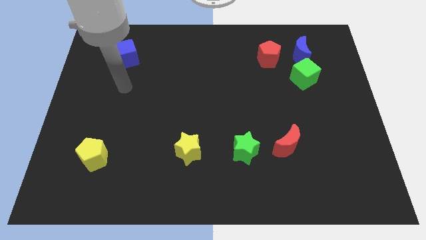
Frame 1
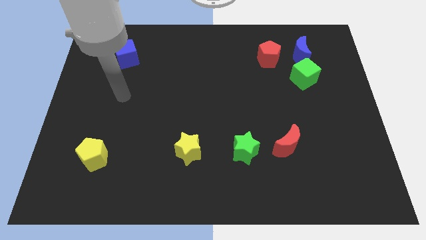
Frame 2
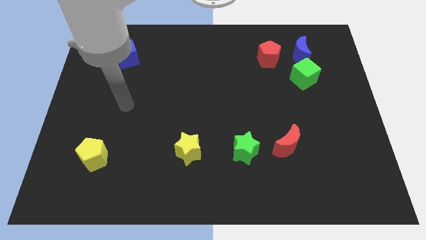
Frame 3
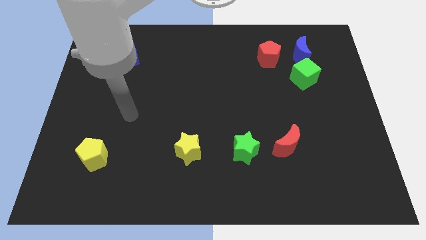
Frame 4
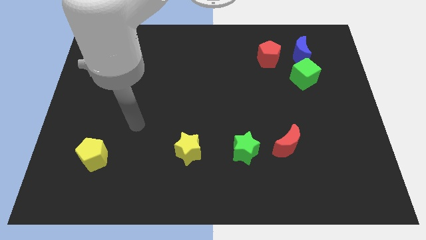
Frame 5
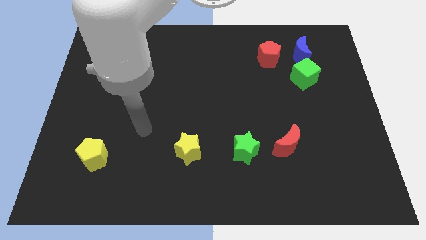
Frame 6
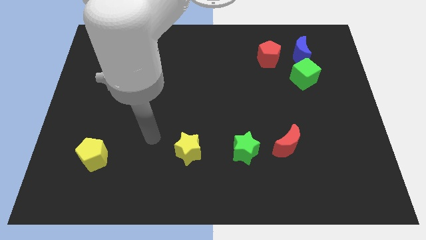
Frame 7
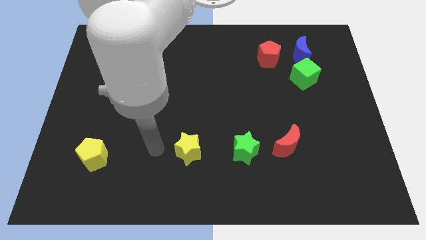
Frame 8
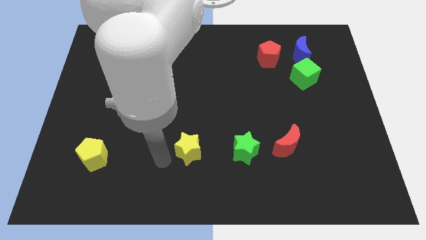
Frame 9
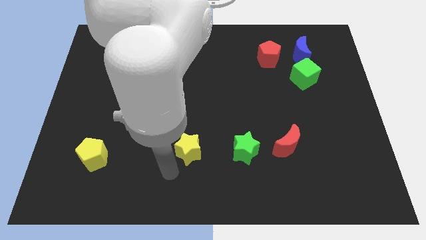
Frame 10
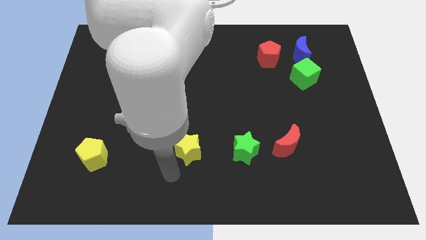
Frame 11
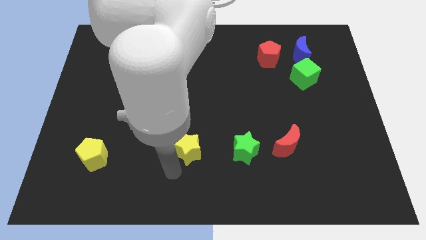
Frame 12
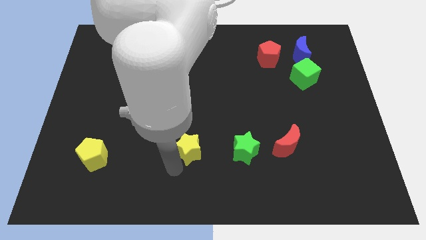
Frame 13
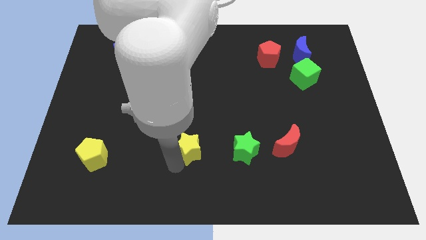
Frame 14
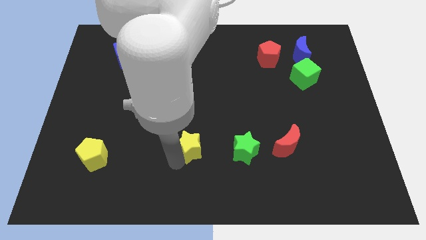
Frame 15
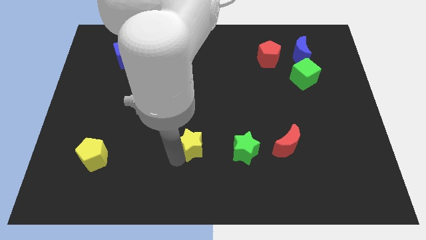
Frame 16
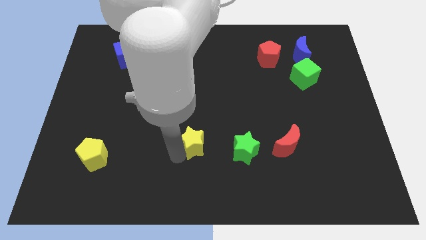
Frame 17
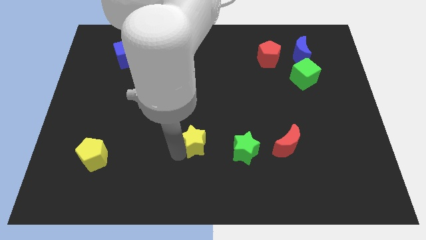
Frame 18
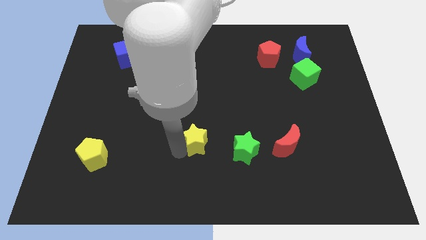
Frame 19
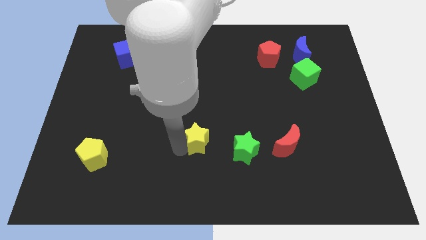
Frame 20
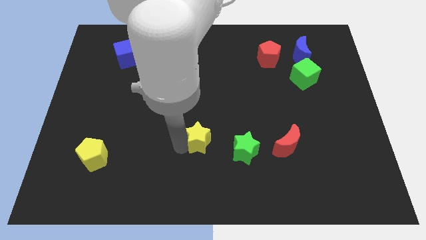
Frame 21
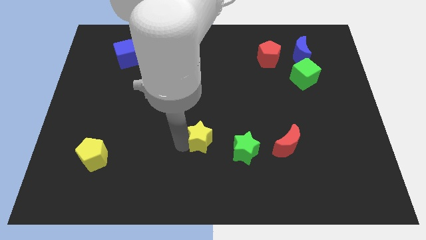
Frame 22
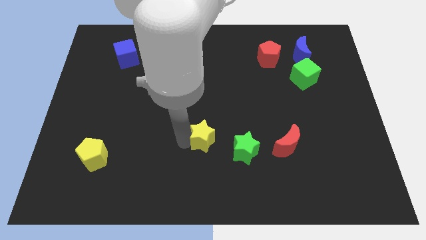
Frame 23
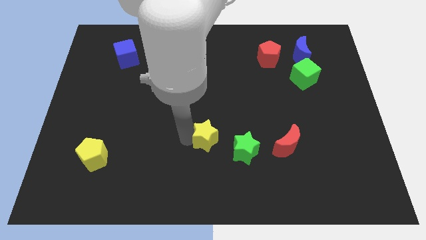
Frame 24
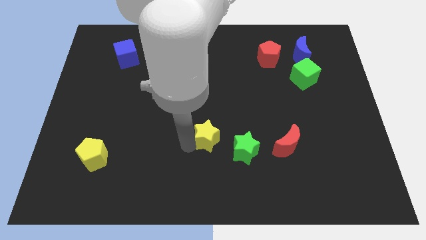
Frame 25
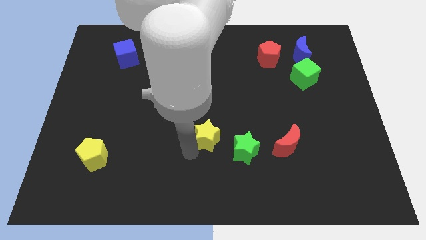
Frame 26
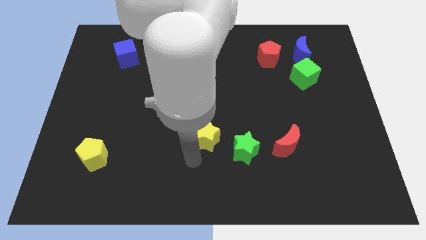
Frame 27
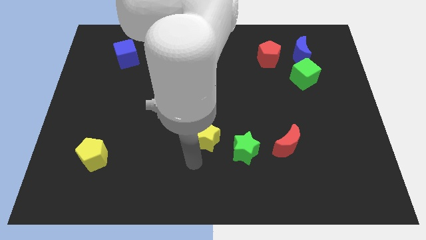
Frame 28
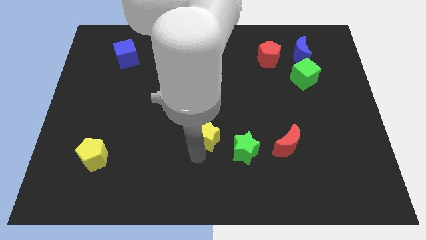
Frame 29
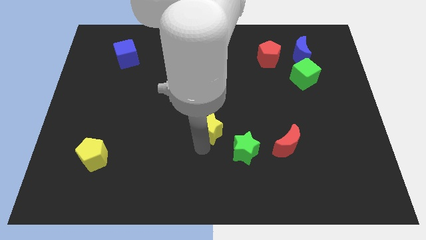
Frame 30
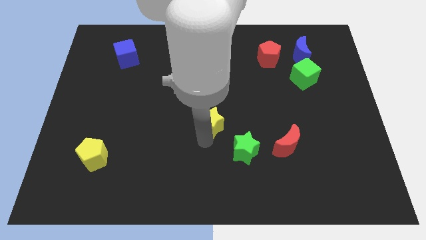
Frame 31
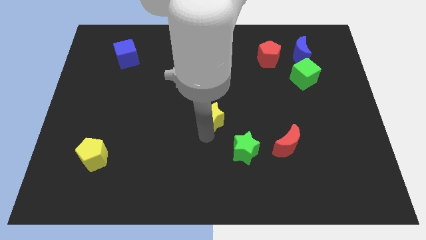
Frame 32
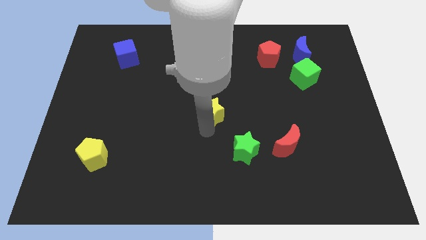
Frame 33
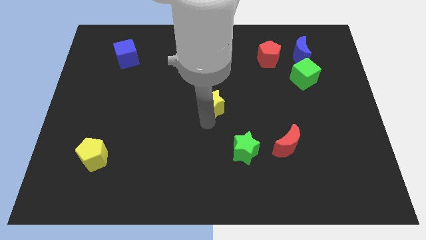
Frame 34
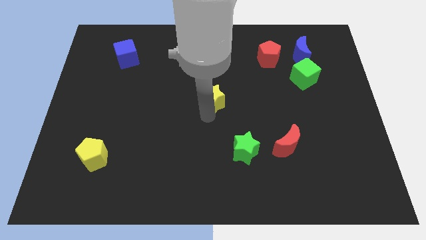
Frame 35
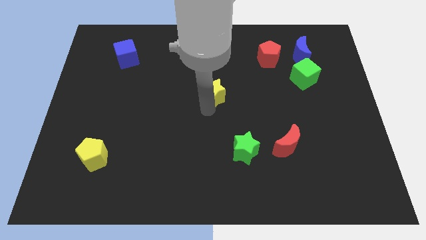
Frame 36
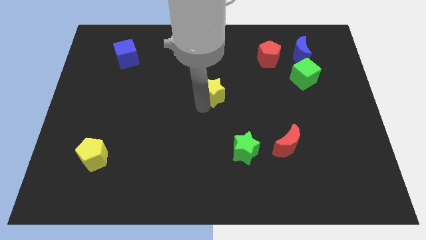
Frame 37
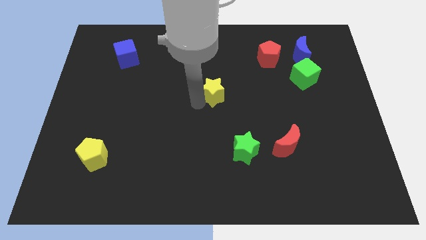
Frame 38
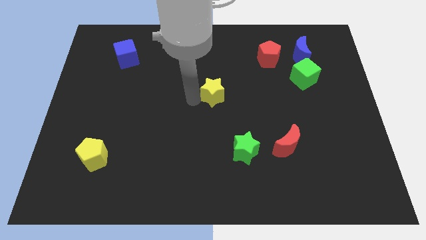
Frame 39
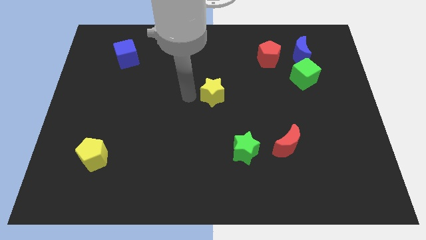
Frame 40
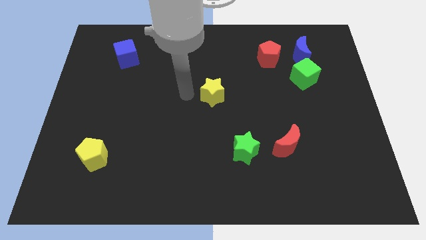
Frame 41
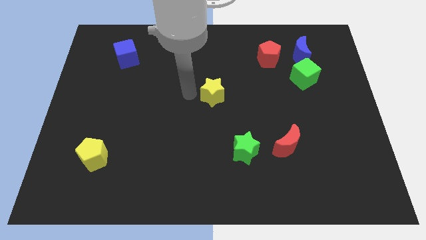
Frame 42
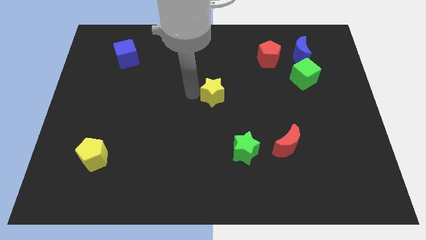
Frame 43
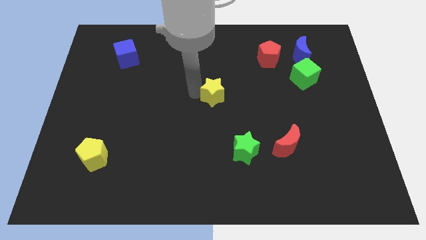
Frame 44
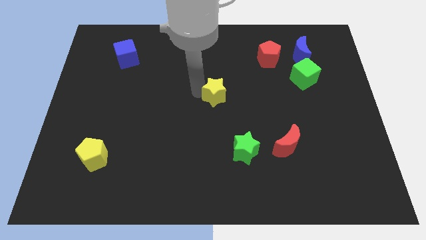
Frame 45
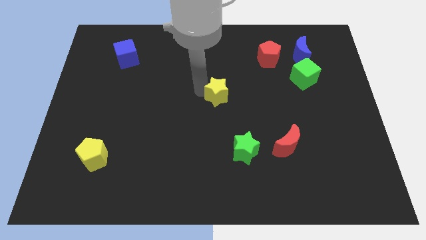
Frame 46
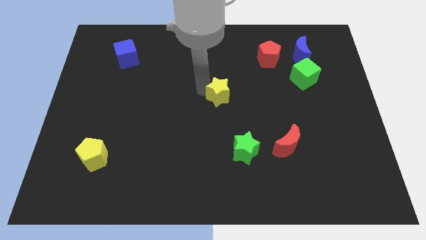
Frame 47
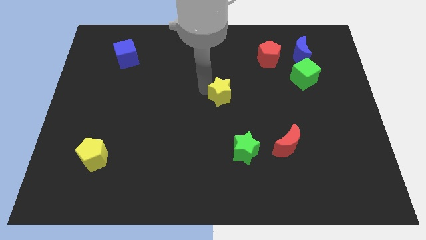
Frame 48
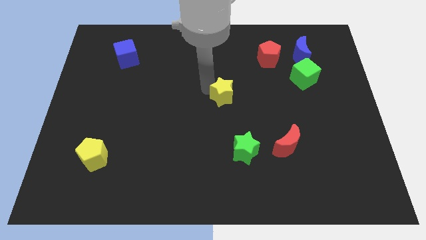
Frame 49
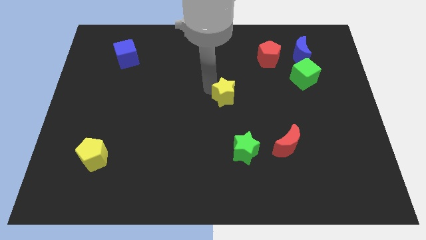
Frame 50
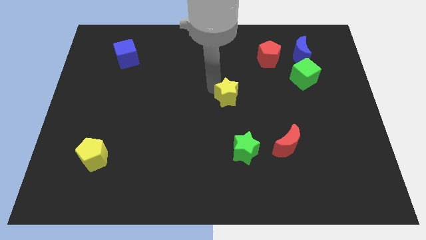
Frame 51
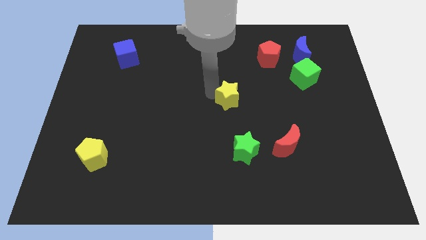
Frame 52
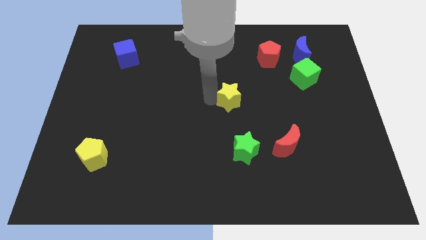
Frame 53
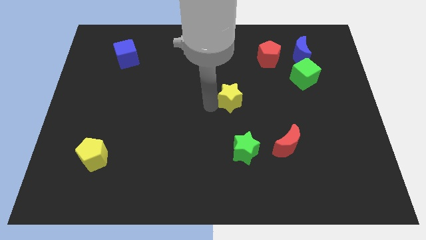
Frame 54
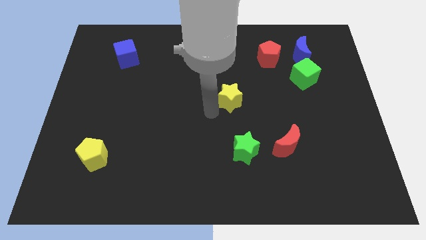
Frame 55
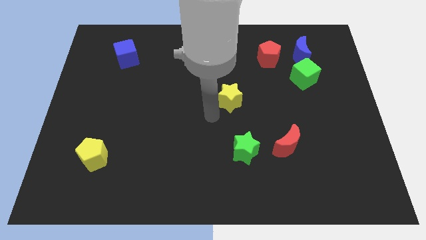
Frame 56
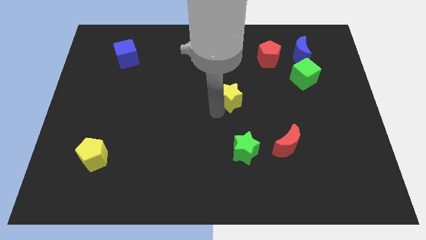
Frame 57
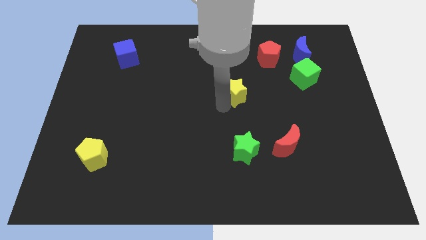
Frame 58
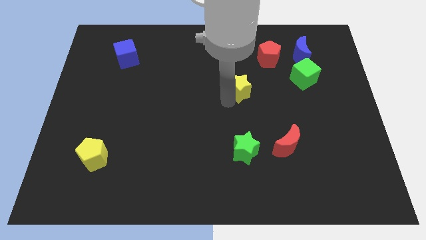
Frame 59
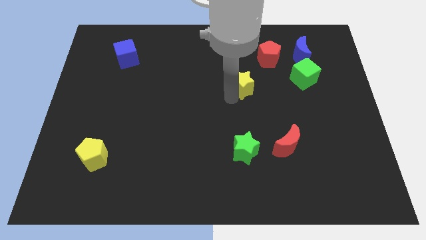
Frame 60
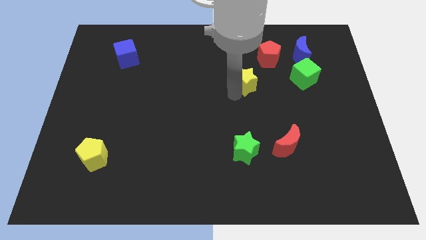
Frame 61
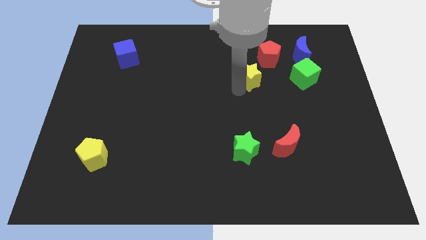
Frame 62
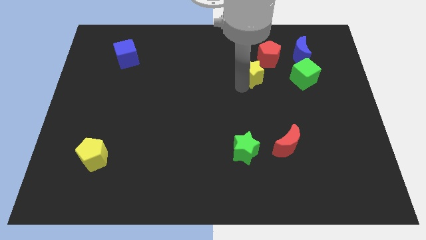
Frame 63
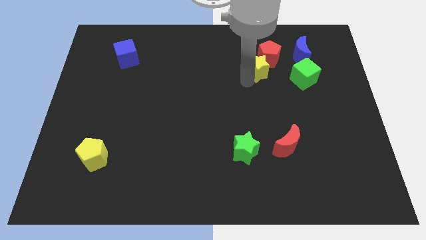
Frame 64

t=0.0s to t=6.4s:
move the yellow star close to the red pentagon

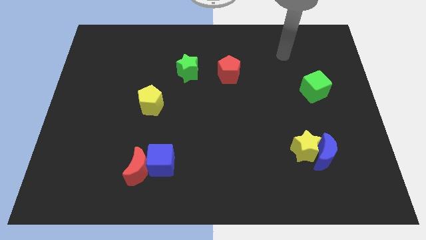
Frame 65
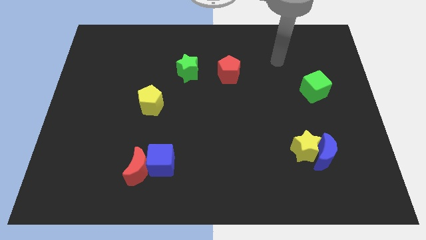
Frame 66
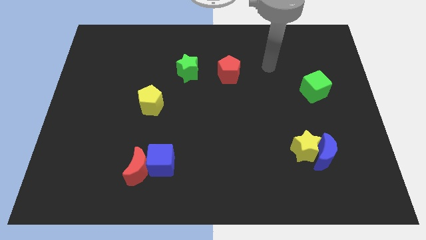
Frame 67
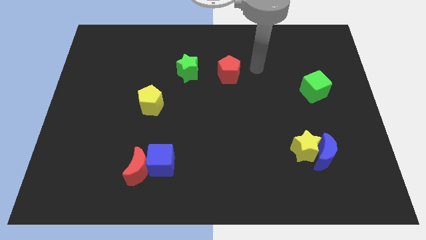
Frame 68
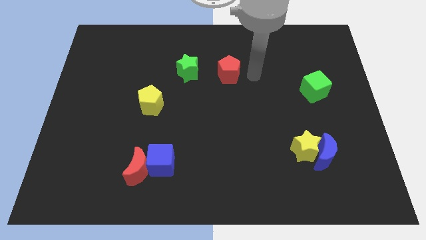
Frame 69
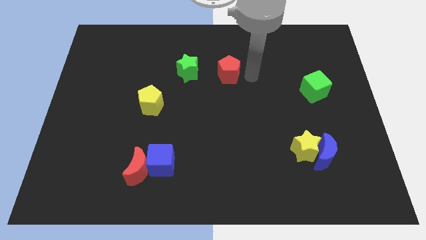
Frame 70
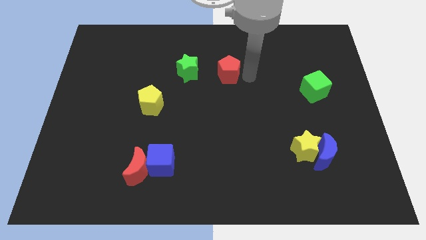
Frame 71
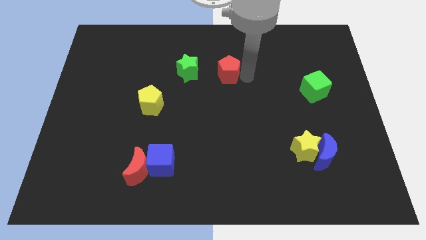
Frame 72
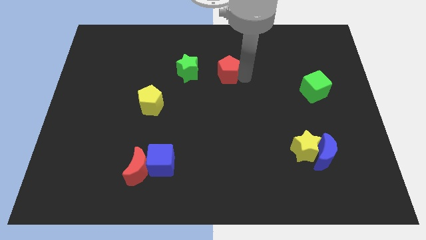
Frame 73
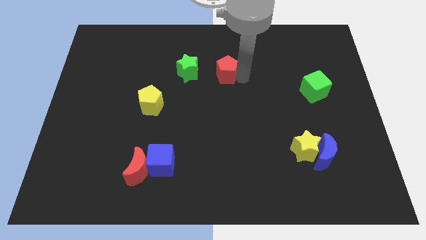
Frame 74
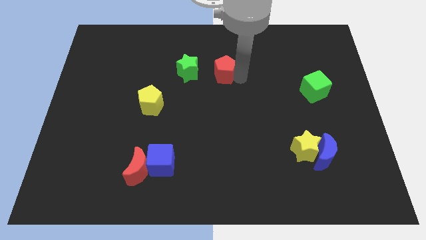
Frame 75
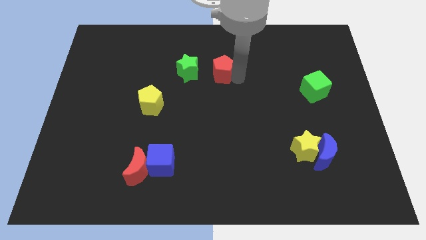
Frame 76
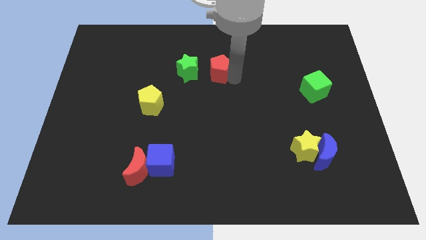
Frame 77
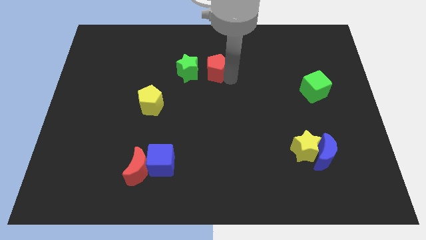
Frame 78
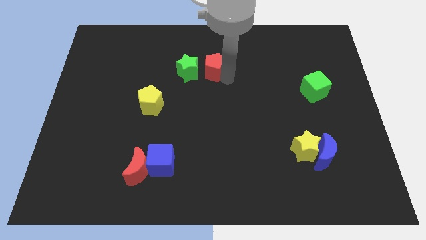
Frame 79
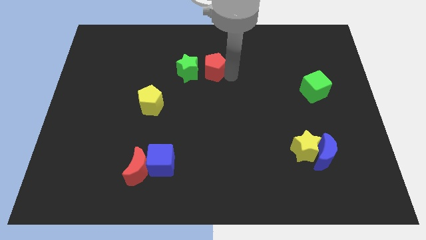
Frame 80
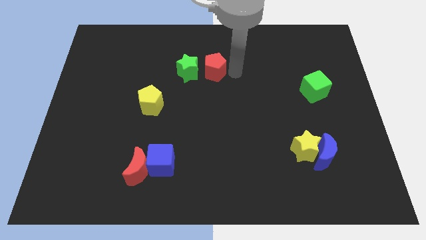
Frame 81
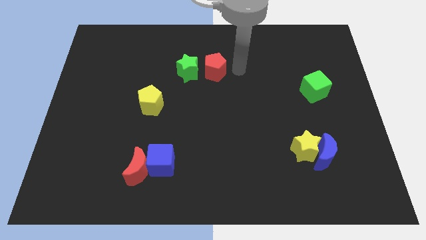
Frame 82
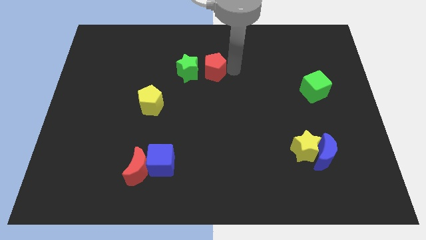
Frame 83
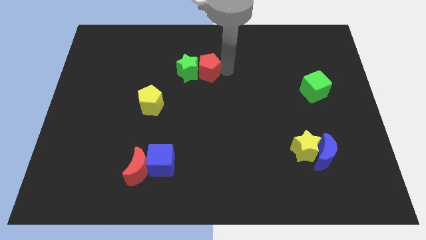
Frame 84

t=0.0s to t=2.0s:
put the red pentagon to the green star

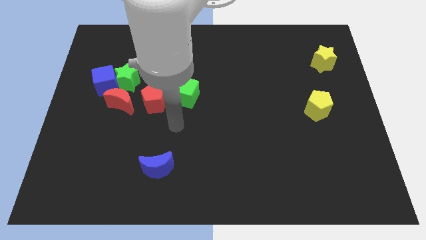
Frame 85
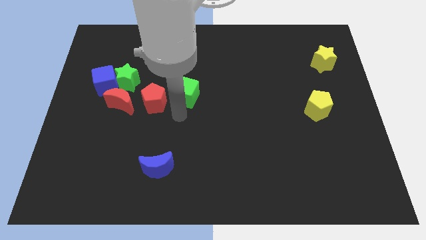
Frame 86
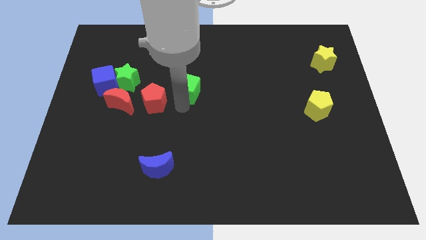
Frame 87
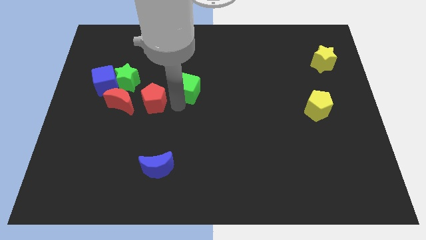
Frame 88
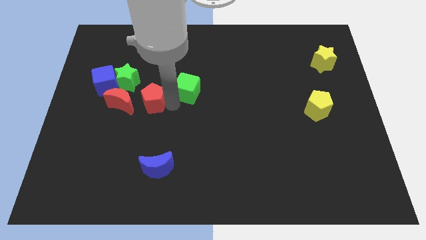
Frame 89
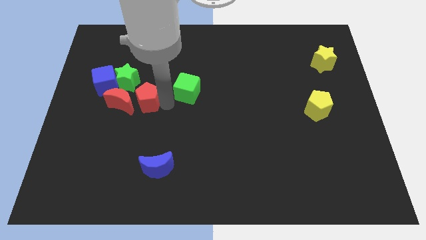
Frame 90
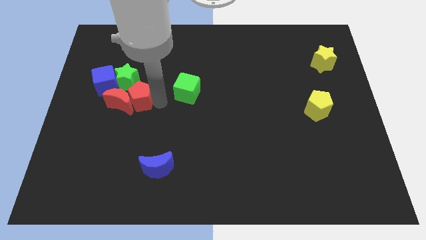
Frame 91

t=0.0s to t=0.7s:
slide the red pentagon towards the red moon
